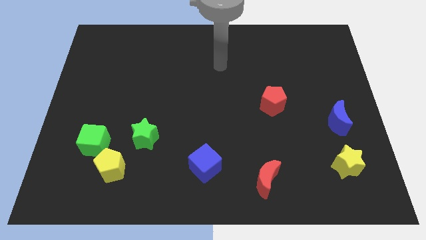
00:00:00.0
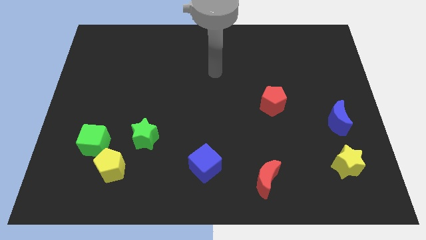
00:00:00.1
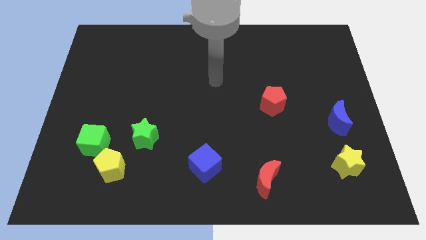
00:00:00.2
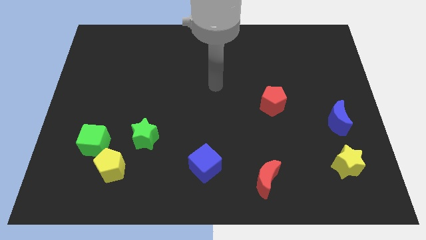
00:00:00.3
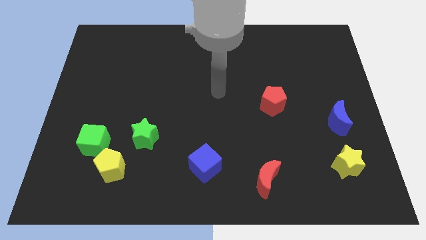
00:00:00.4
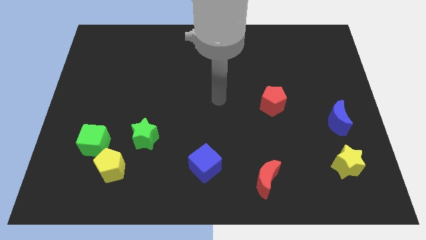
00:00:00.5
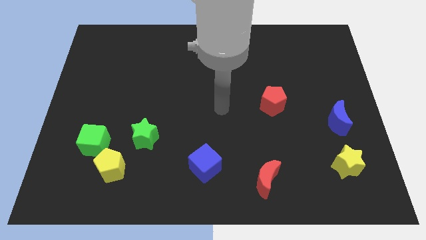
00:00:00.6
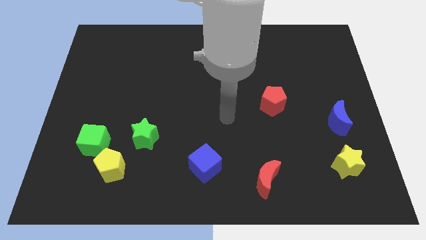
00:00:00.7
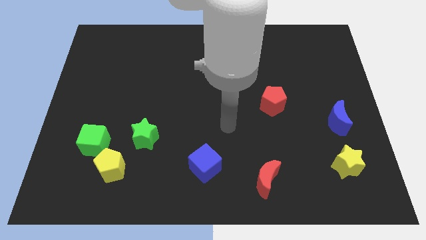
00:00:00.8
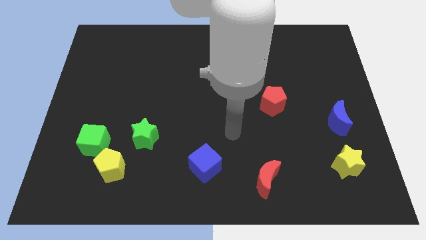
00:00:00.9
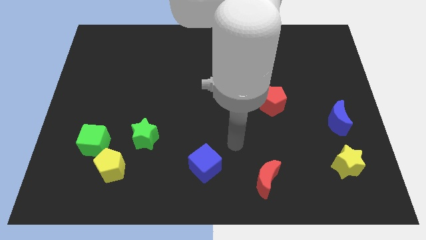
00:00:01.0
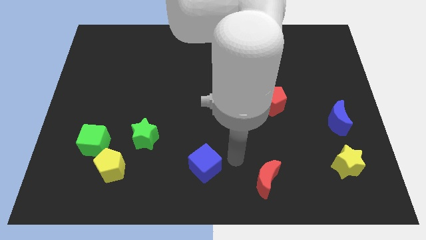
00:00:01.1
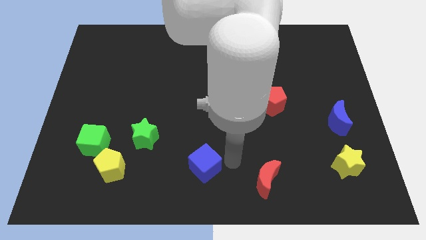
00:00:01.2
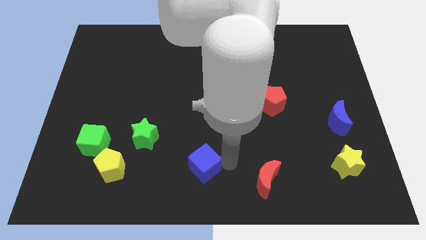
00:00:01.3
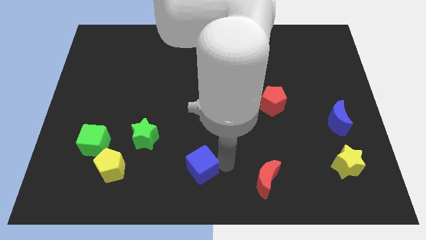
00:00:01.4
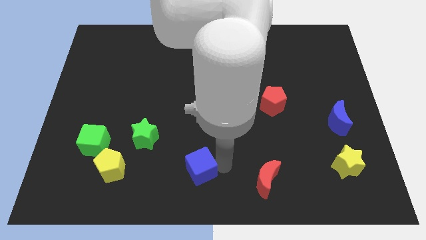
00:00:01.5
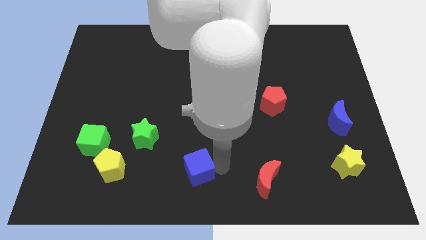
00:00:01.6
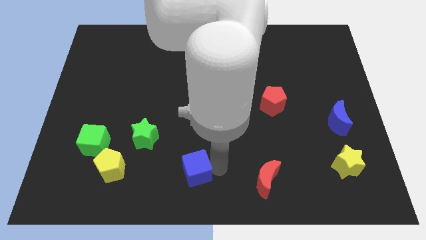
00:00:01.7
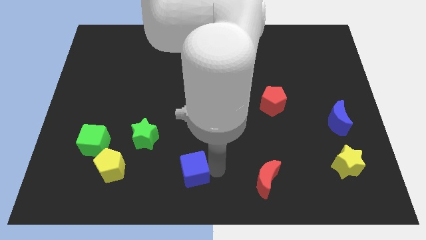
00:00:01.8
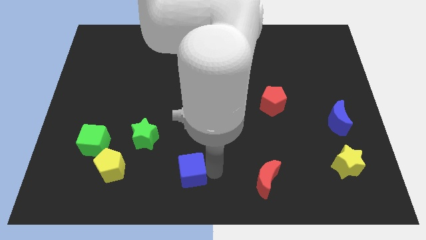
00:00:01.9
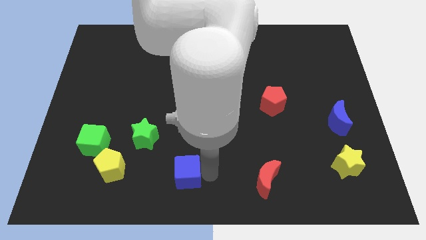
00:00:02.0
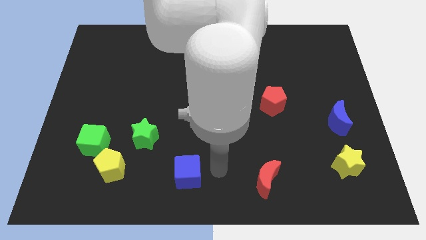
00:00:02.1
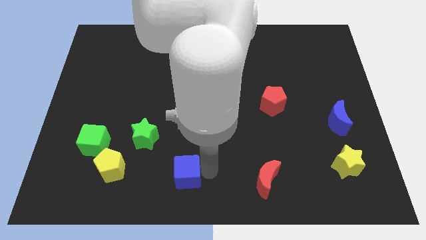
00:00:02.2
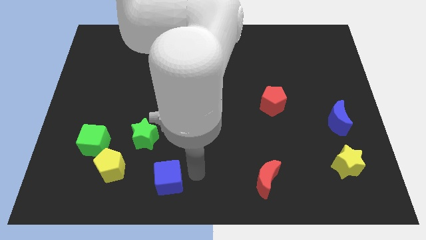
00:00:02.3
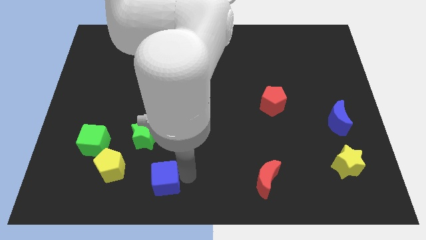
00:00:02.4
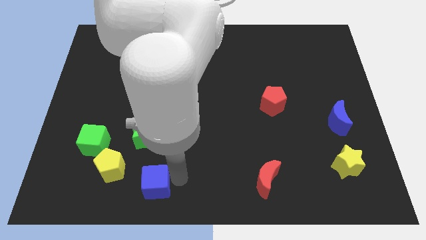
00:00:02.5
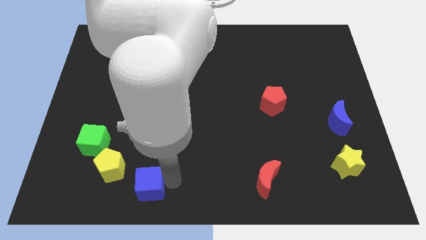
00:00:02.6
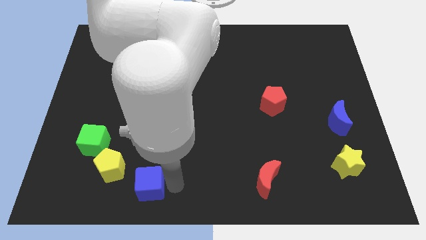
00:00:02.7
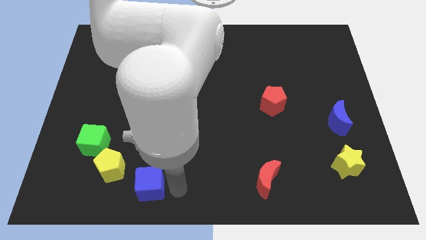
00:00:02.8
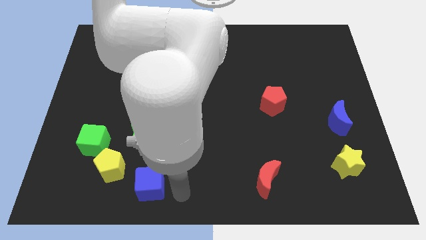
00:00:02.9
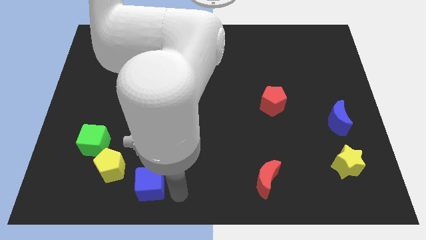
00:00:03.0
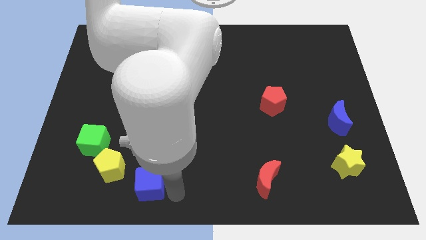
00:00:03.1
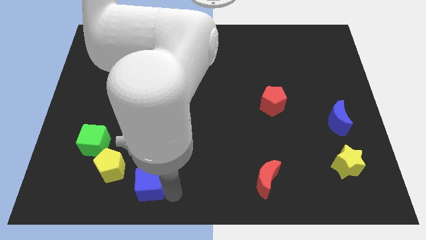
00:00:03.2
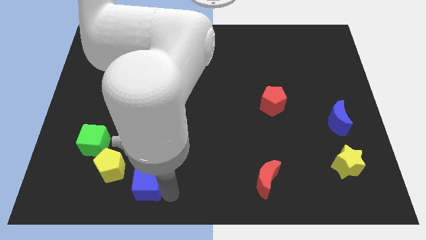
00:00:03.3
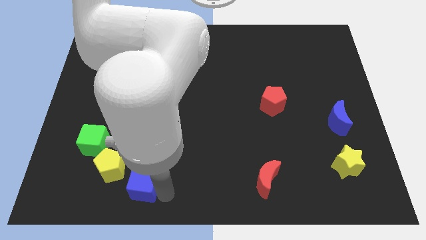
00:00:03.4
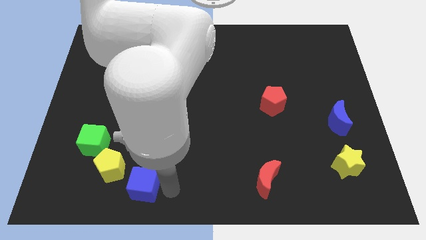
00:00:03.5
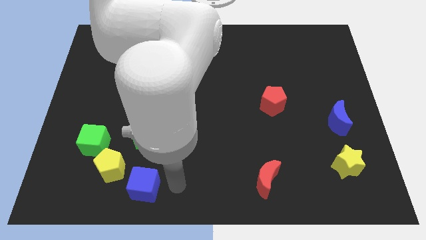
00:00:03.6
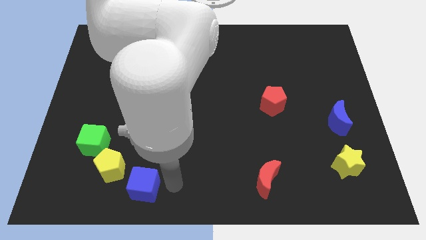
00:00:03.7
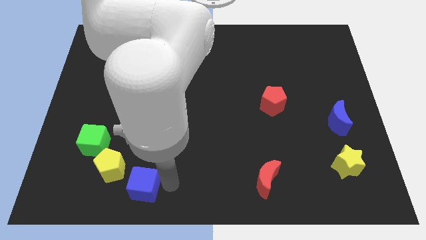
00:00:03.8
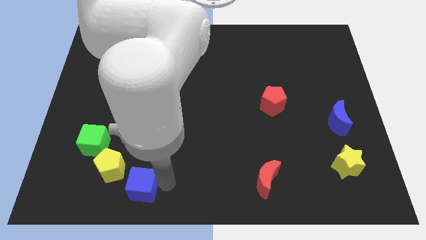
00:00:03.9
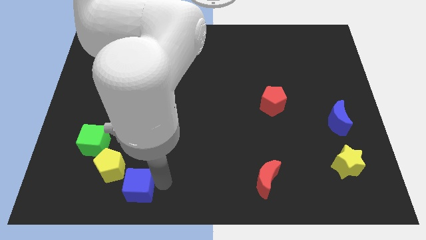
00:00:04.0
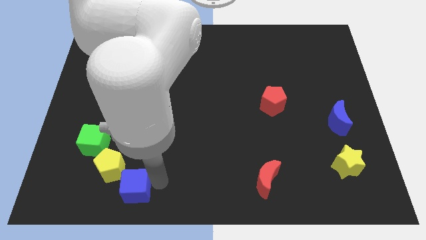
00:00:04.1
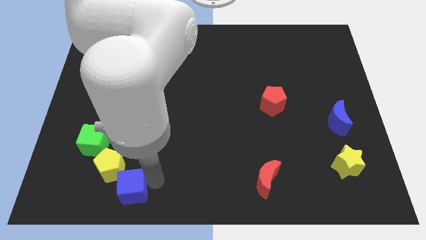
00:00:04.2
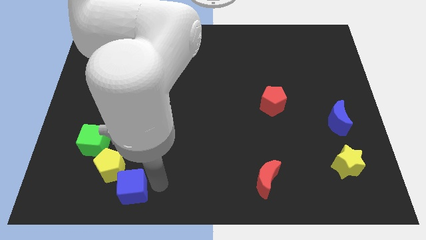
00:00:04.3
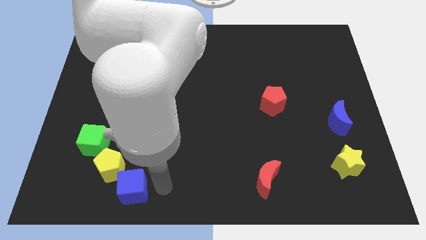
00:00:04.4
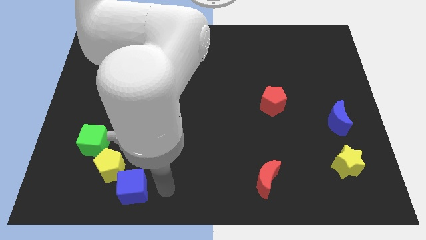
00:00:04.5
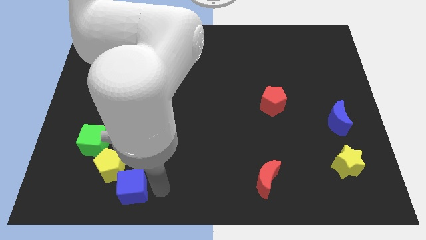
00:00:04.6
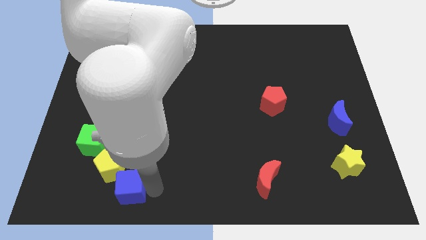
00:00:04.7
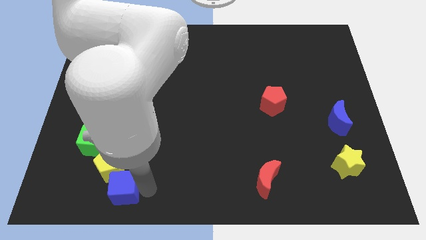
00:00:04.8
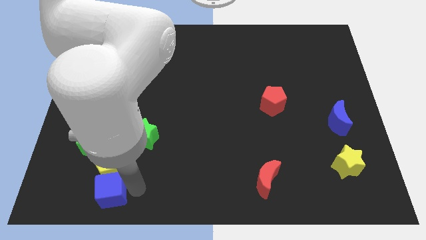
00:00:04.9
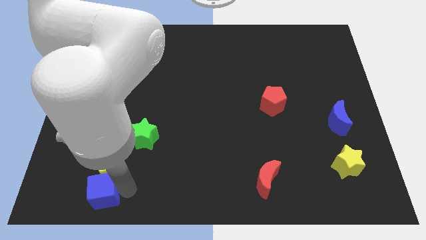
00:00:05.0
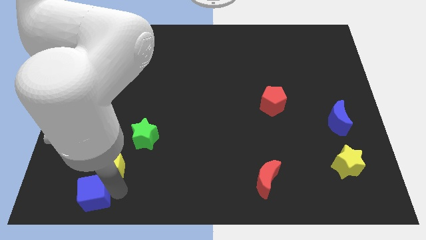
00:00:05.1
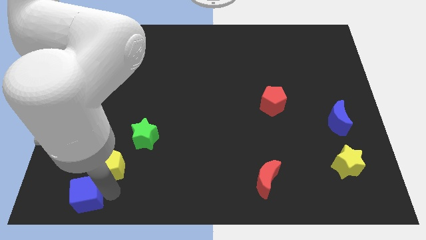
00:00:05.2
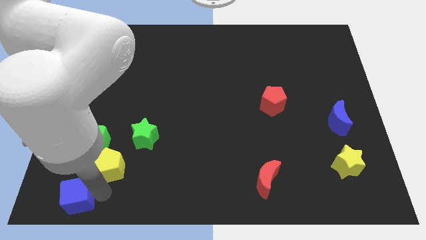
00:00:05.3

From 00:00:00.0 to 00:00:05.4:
push the blue cube to the lower left corner

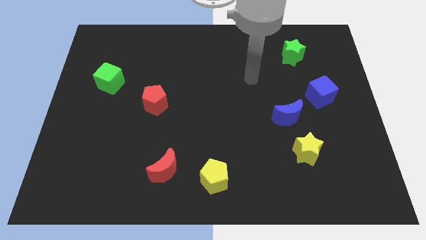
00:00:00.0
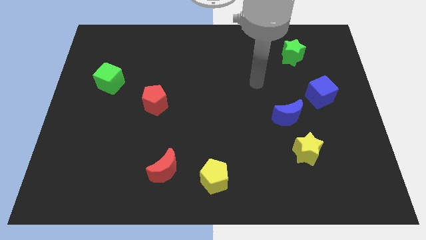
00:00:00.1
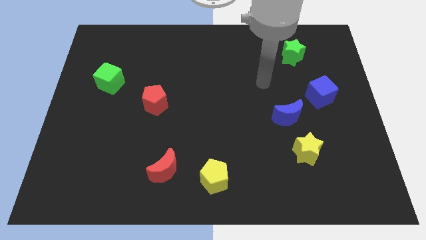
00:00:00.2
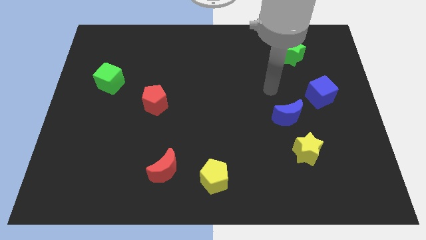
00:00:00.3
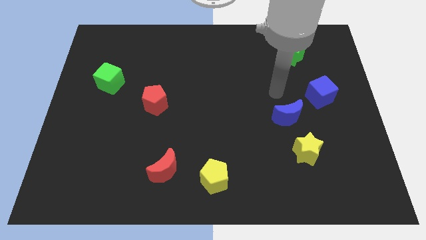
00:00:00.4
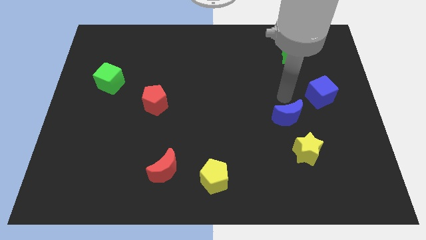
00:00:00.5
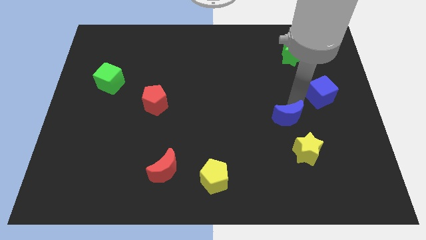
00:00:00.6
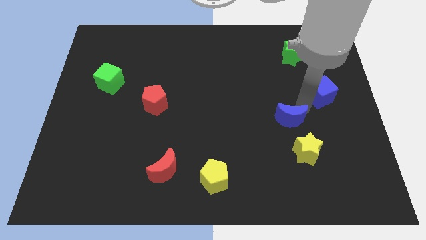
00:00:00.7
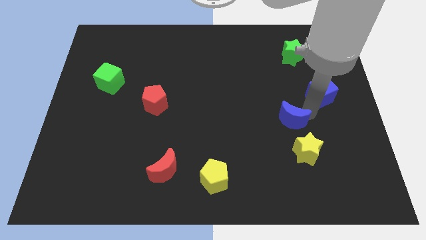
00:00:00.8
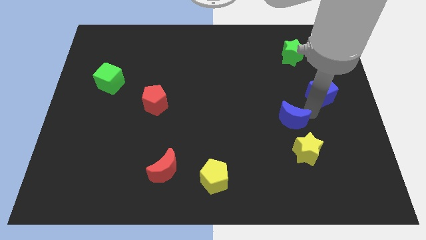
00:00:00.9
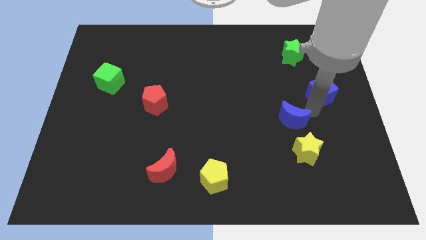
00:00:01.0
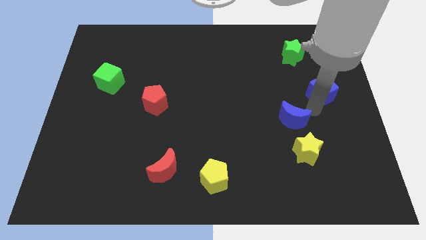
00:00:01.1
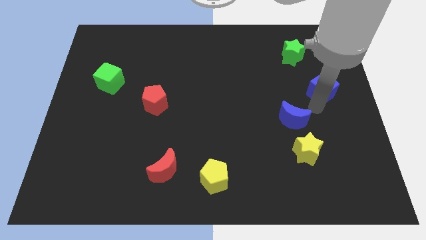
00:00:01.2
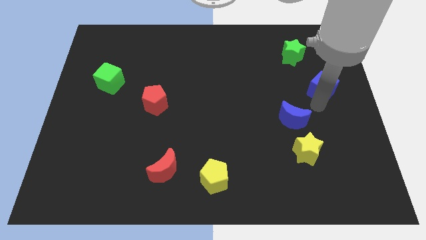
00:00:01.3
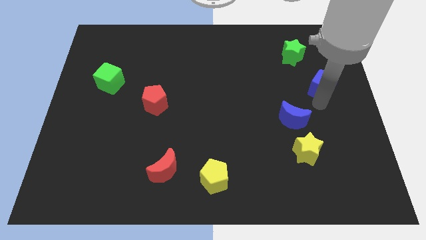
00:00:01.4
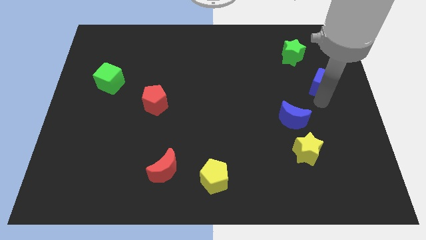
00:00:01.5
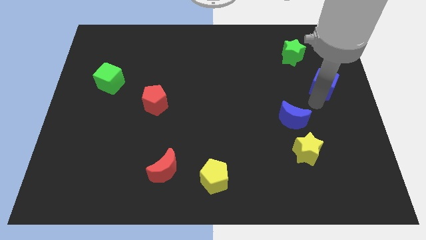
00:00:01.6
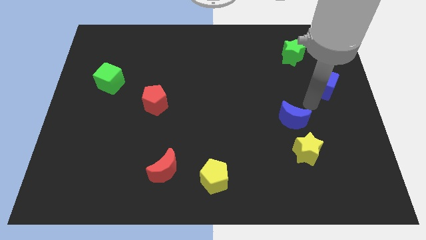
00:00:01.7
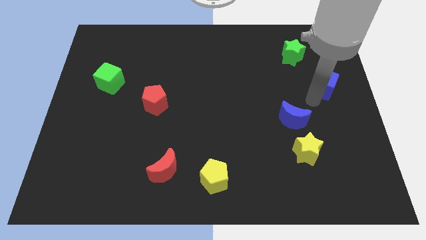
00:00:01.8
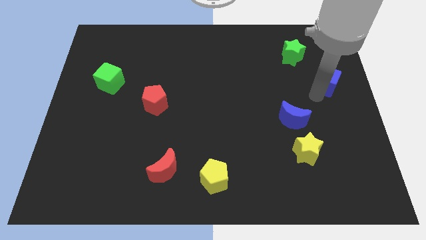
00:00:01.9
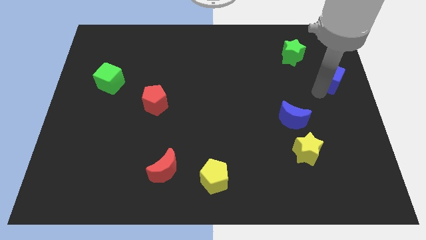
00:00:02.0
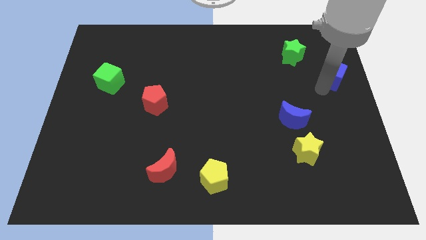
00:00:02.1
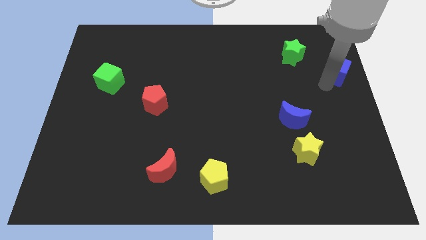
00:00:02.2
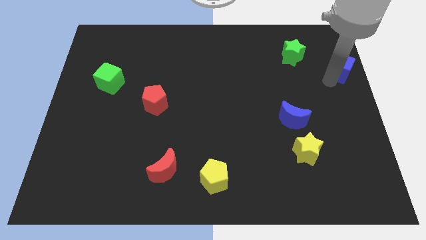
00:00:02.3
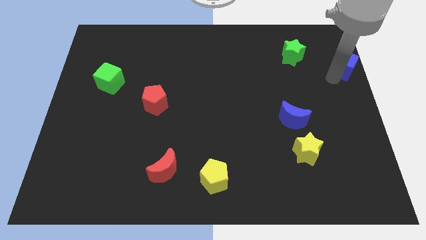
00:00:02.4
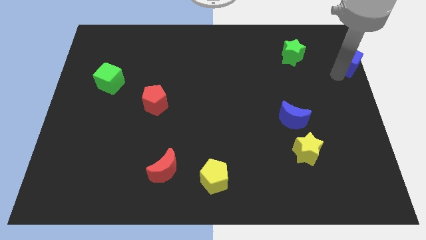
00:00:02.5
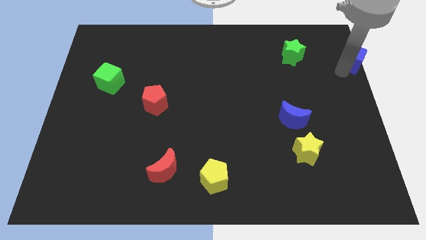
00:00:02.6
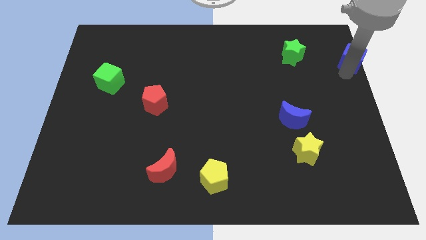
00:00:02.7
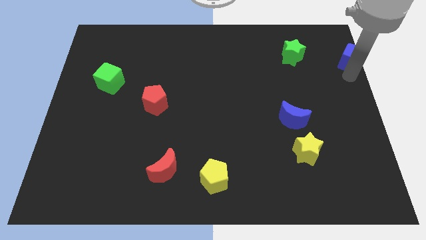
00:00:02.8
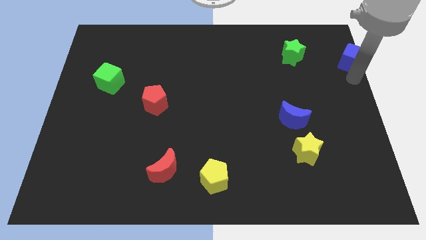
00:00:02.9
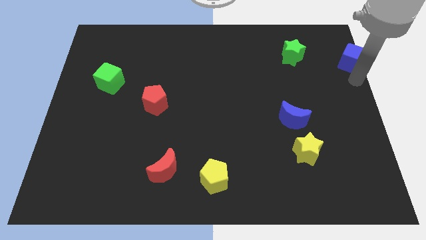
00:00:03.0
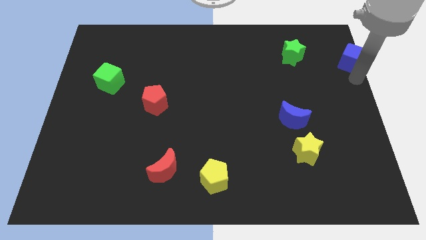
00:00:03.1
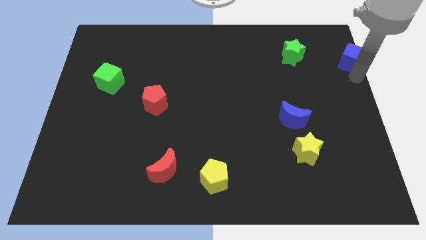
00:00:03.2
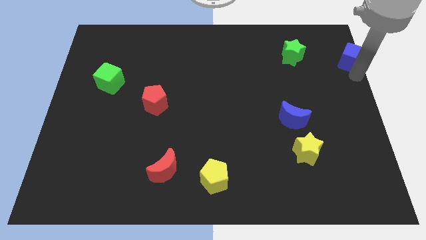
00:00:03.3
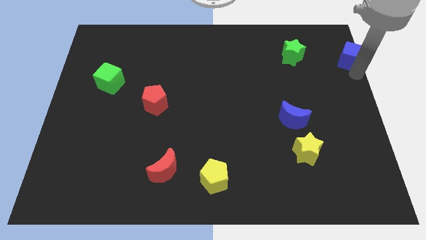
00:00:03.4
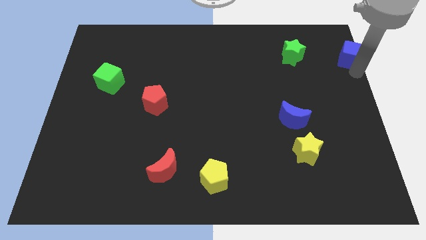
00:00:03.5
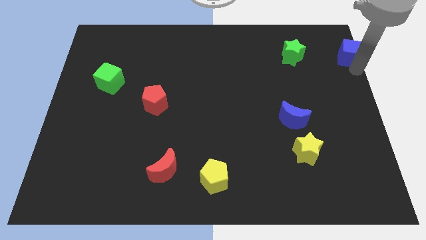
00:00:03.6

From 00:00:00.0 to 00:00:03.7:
move the blue cube to the top right corner
